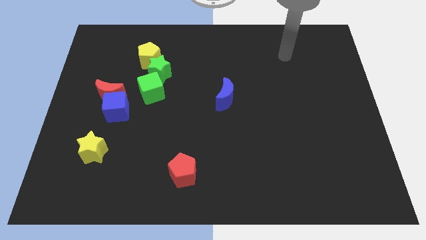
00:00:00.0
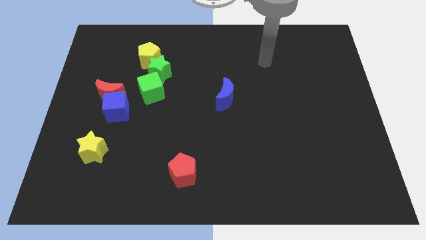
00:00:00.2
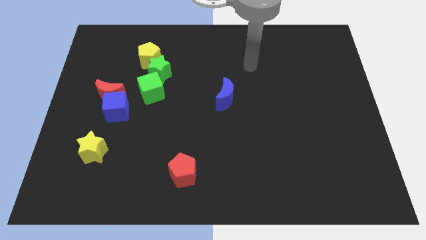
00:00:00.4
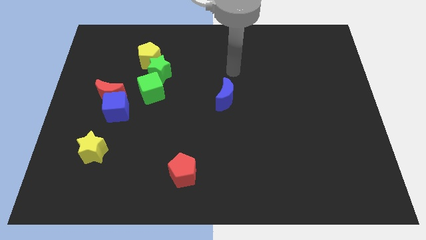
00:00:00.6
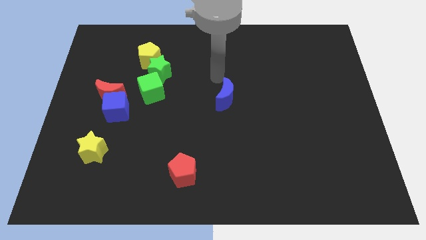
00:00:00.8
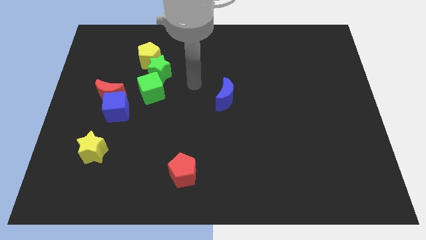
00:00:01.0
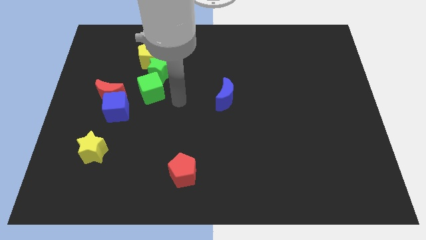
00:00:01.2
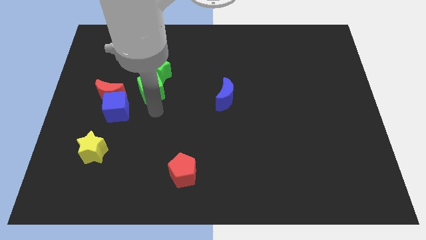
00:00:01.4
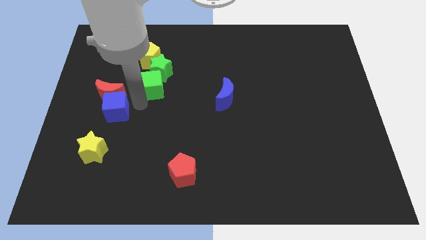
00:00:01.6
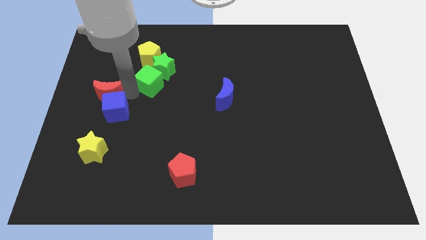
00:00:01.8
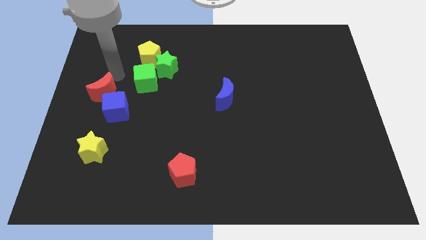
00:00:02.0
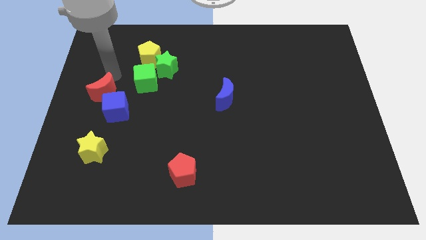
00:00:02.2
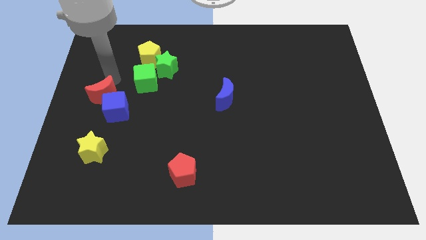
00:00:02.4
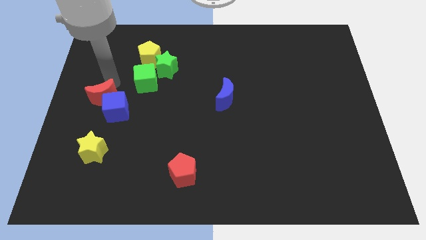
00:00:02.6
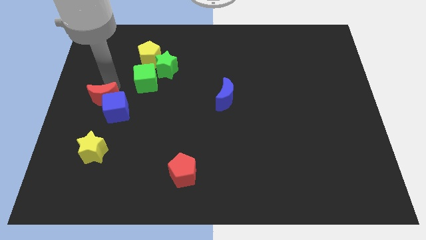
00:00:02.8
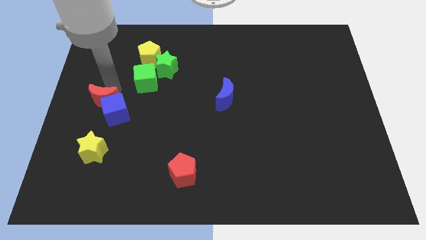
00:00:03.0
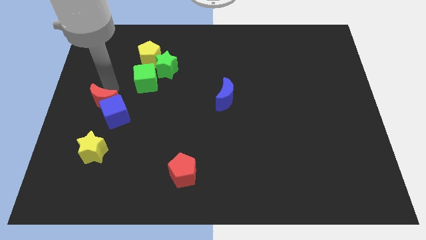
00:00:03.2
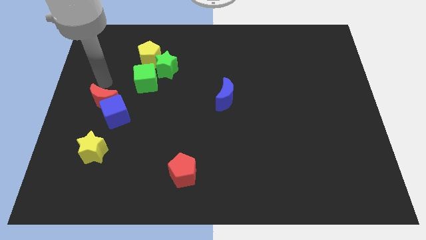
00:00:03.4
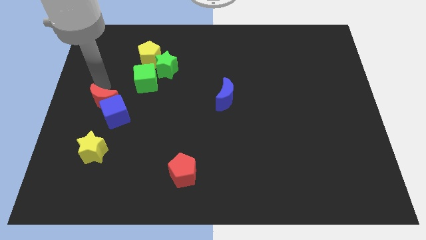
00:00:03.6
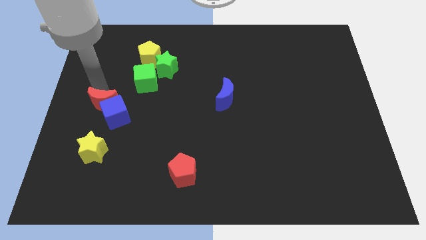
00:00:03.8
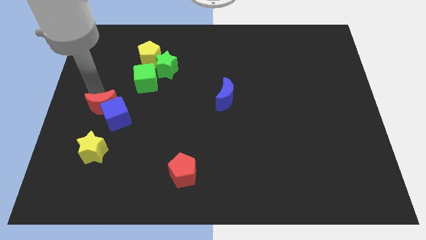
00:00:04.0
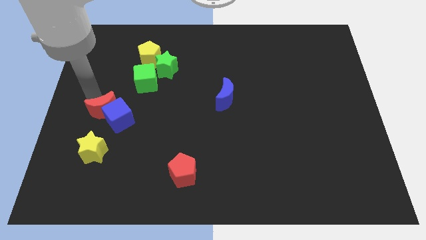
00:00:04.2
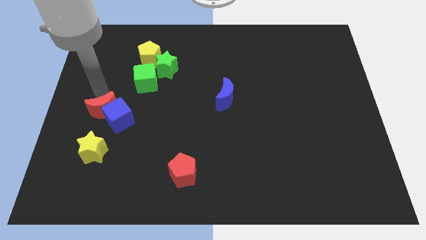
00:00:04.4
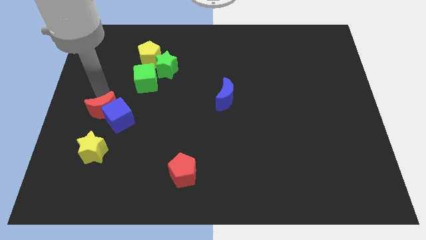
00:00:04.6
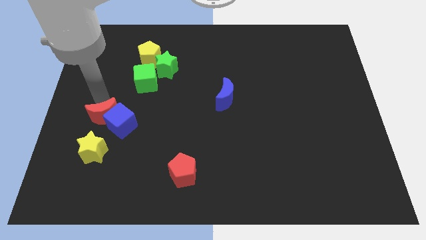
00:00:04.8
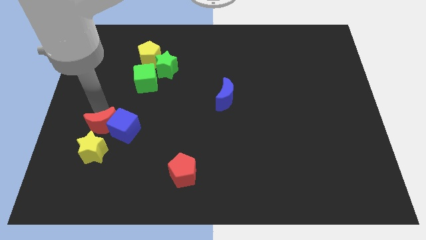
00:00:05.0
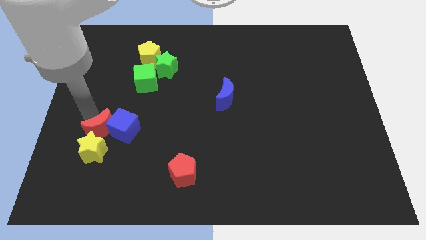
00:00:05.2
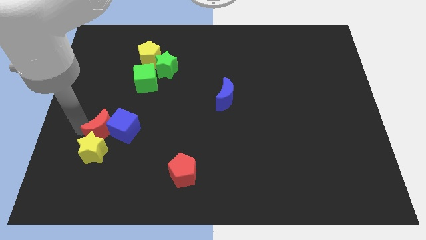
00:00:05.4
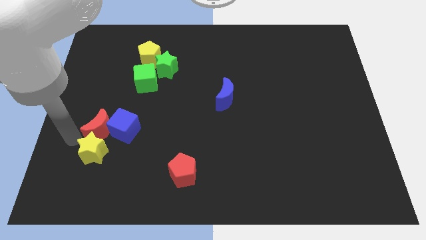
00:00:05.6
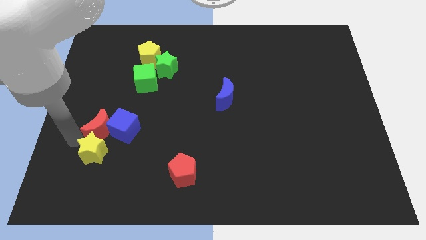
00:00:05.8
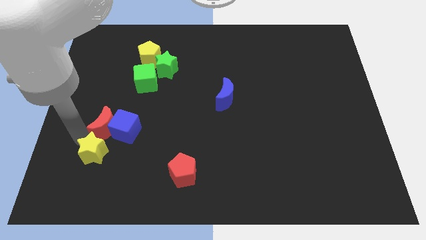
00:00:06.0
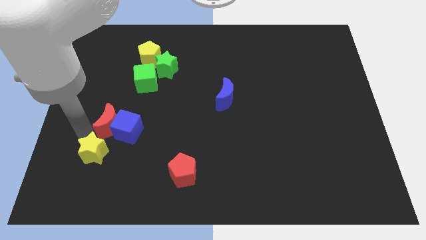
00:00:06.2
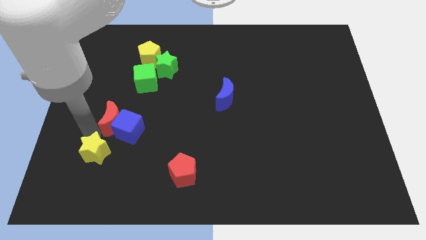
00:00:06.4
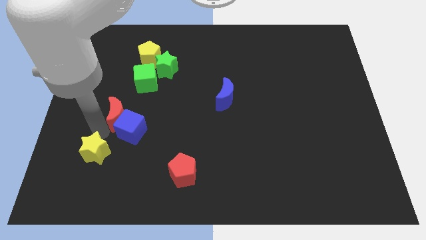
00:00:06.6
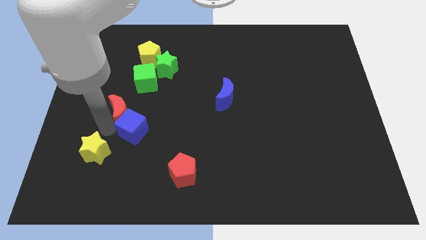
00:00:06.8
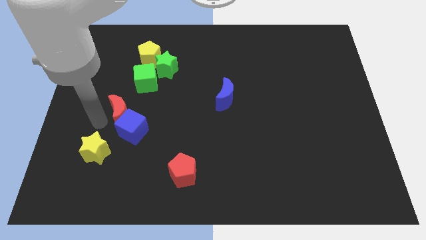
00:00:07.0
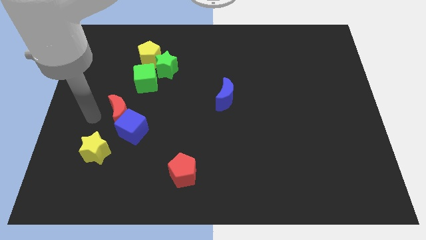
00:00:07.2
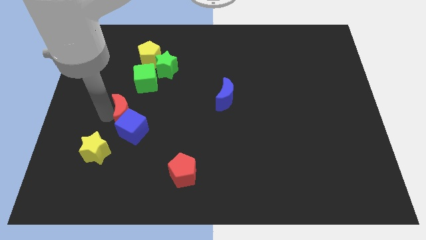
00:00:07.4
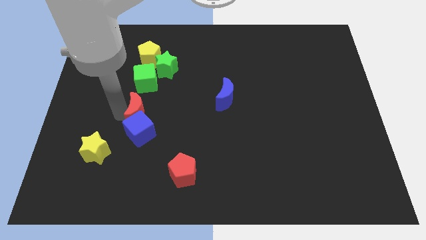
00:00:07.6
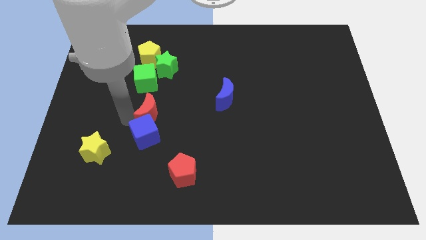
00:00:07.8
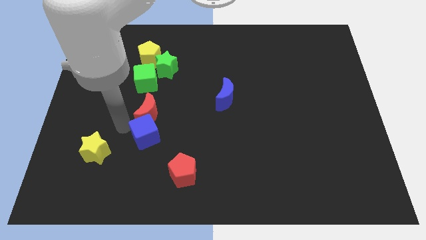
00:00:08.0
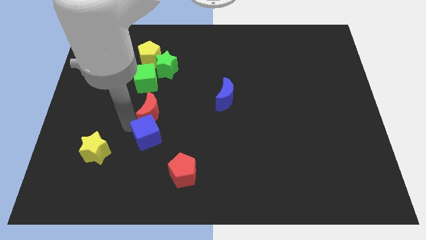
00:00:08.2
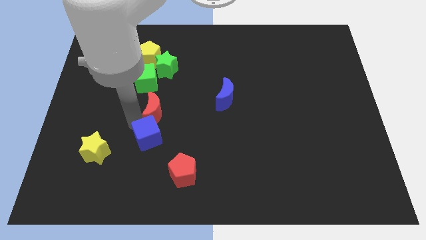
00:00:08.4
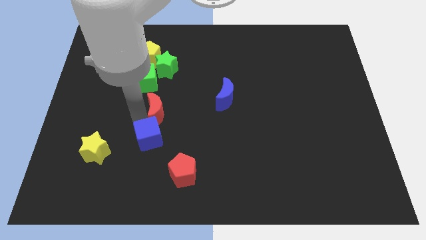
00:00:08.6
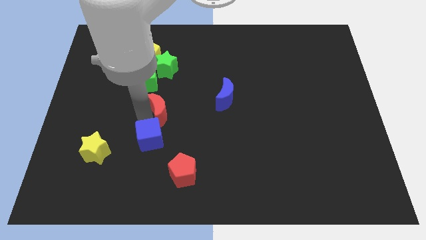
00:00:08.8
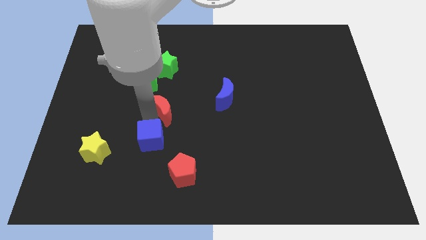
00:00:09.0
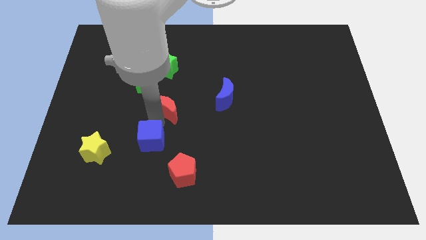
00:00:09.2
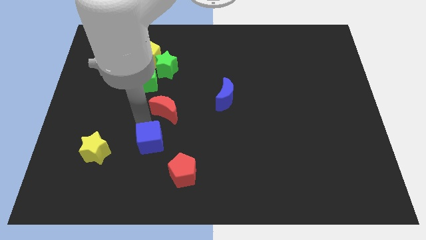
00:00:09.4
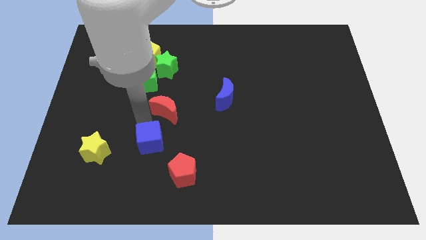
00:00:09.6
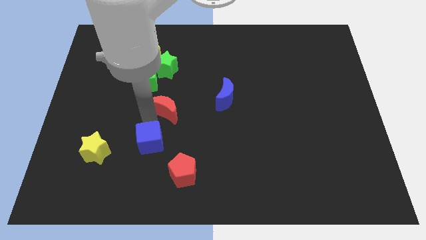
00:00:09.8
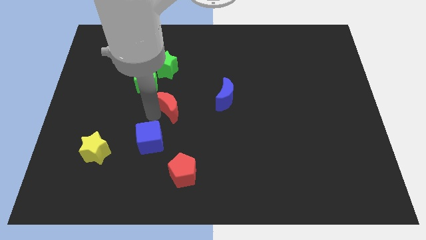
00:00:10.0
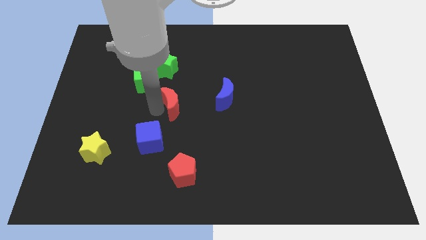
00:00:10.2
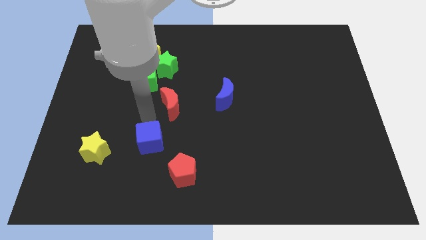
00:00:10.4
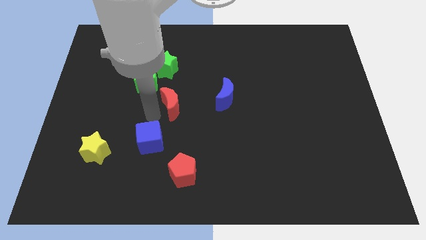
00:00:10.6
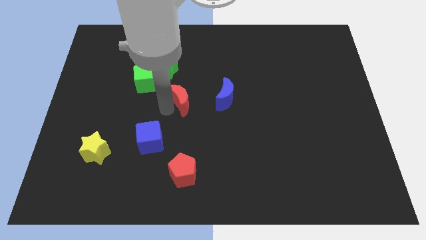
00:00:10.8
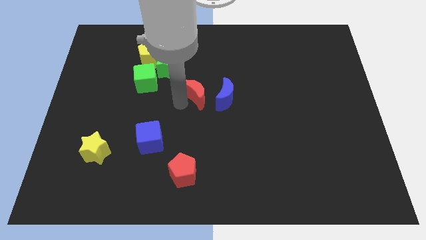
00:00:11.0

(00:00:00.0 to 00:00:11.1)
push the red moon right

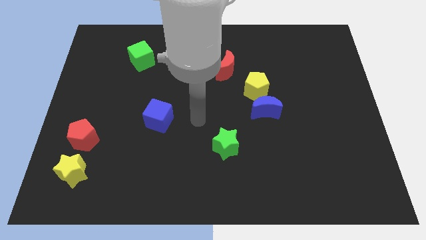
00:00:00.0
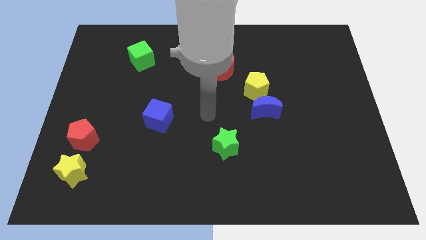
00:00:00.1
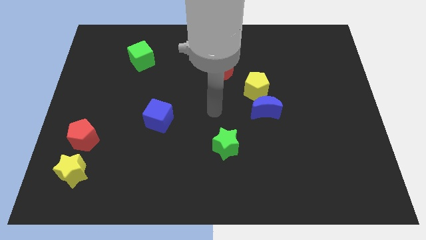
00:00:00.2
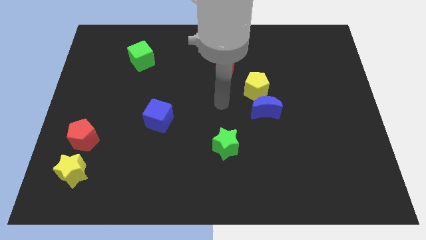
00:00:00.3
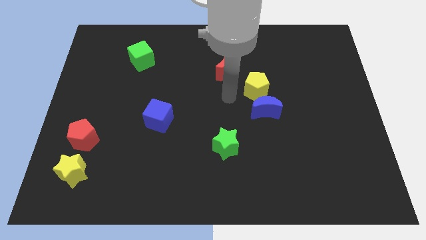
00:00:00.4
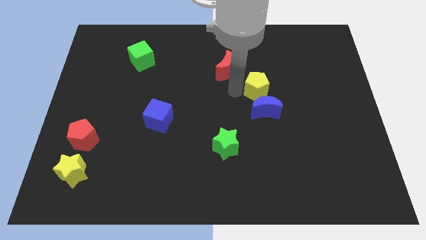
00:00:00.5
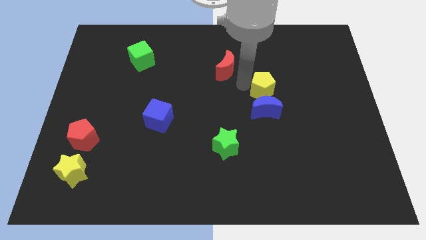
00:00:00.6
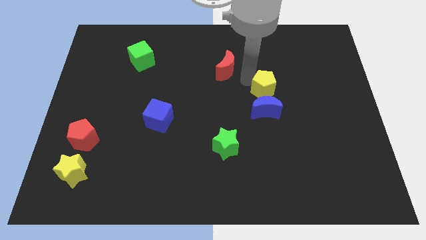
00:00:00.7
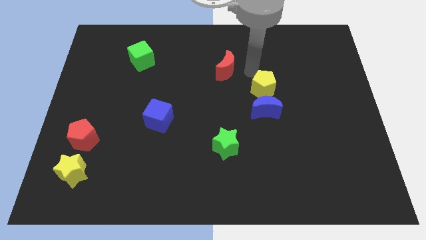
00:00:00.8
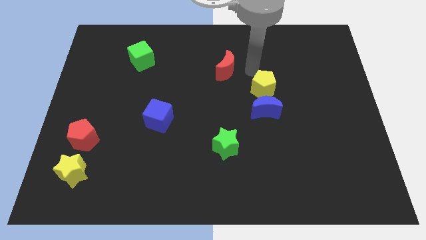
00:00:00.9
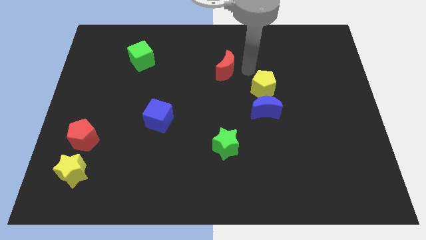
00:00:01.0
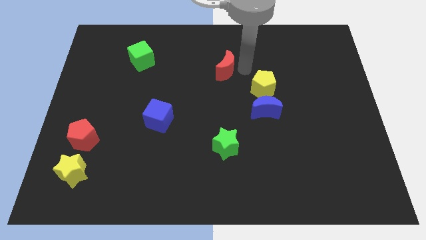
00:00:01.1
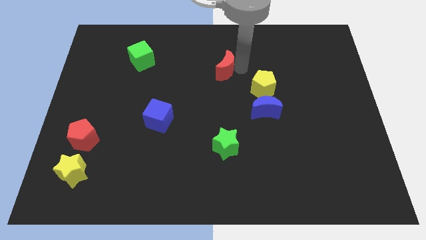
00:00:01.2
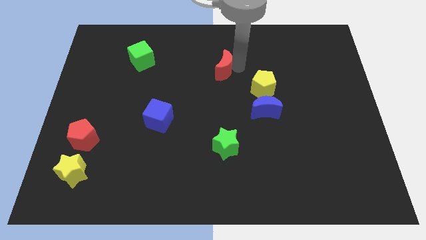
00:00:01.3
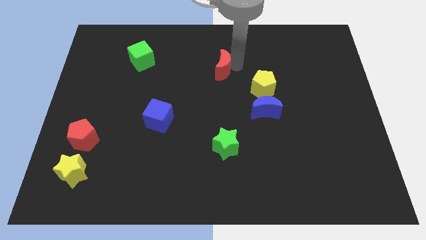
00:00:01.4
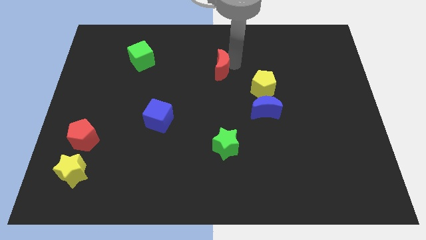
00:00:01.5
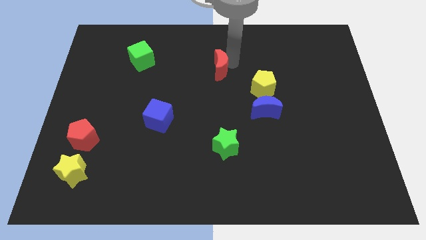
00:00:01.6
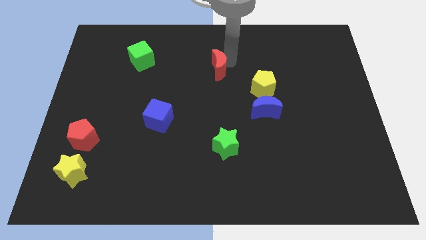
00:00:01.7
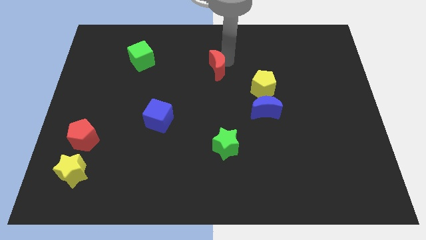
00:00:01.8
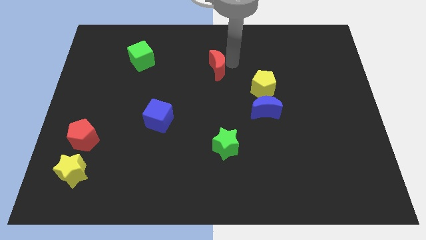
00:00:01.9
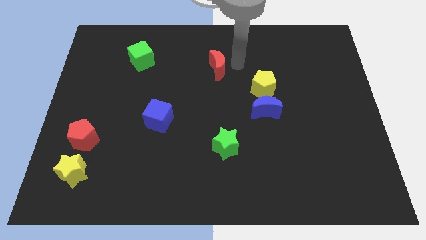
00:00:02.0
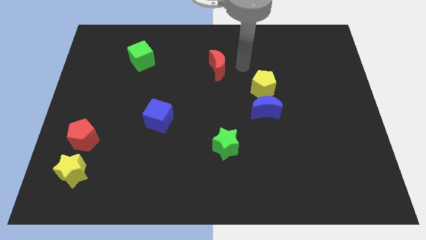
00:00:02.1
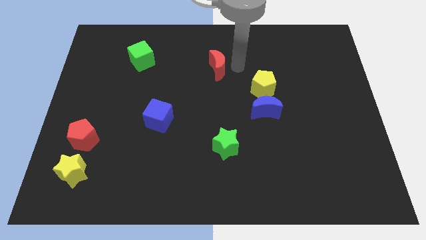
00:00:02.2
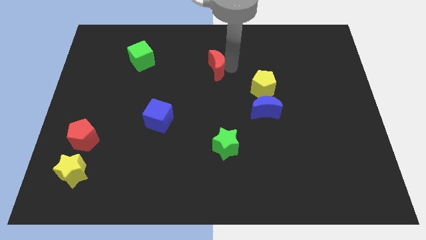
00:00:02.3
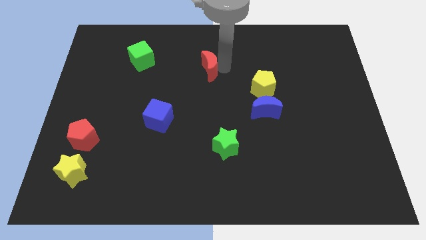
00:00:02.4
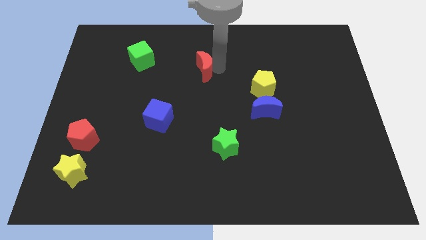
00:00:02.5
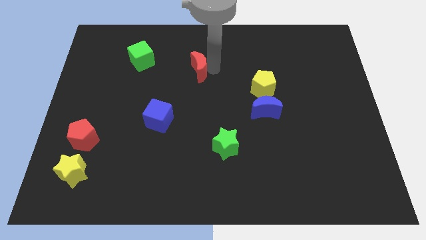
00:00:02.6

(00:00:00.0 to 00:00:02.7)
push the red moon left a bit
